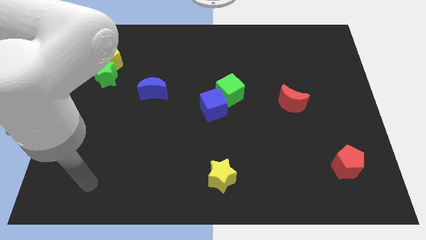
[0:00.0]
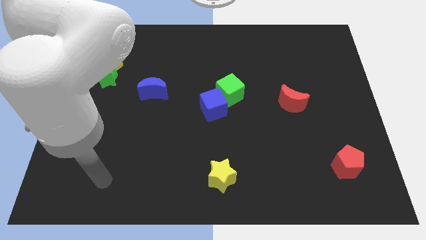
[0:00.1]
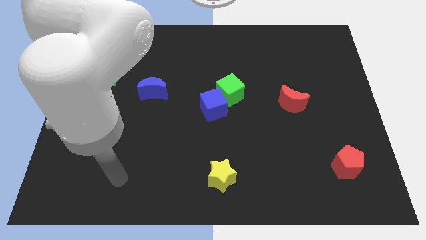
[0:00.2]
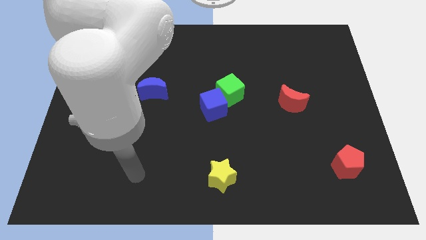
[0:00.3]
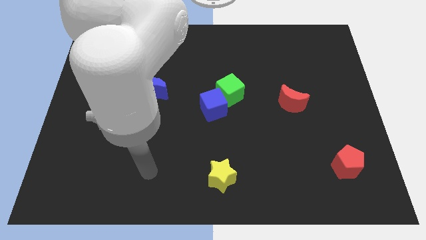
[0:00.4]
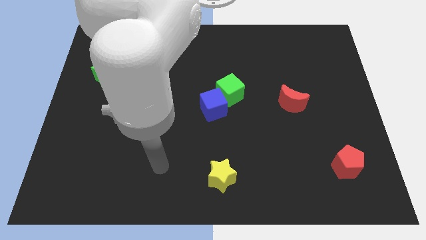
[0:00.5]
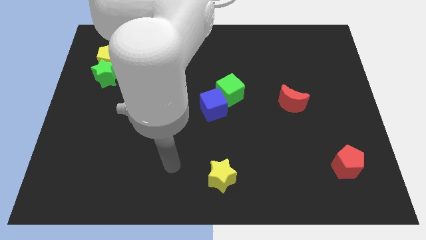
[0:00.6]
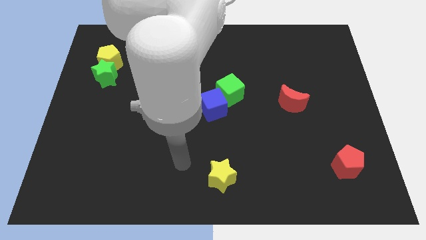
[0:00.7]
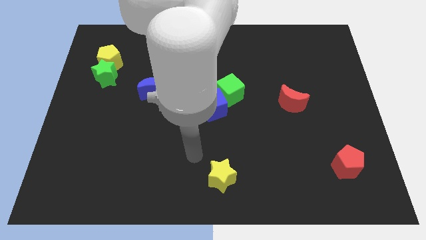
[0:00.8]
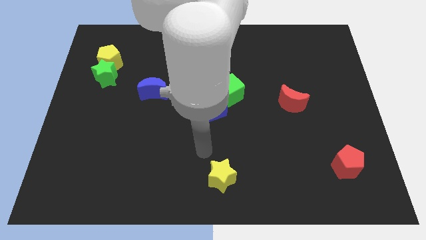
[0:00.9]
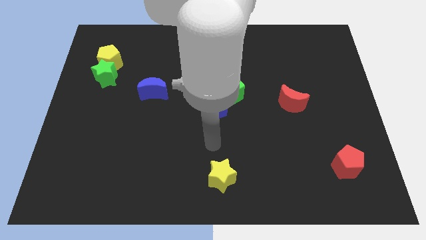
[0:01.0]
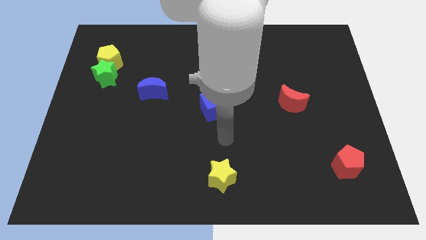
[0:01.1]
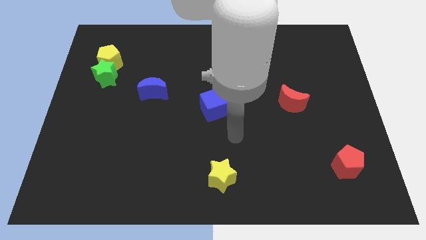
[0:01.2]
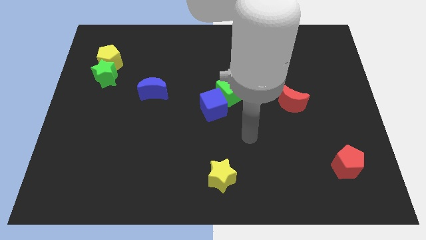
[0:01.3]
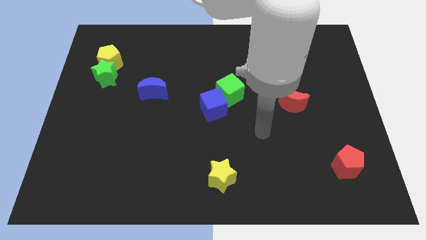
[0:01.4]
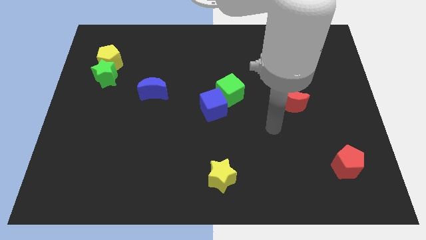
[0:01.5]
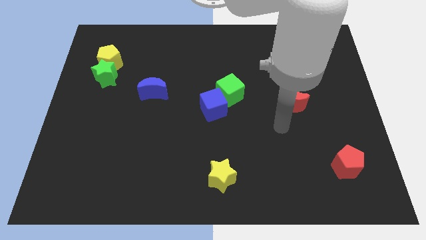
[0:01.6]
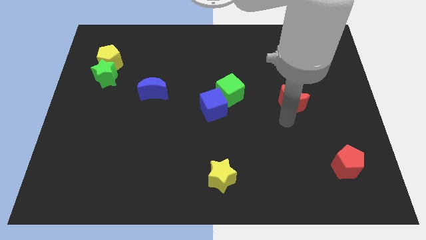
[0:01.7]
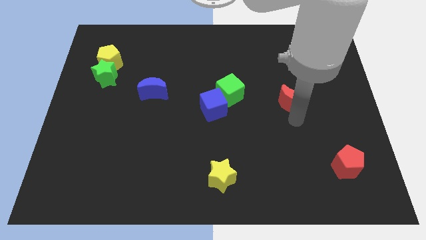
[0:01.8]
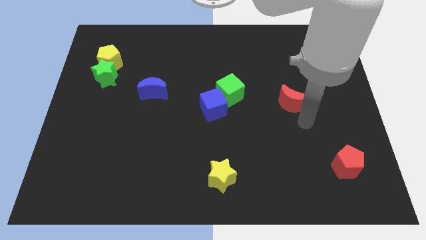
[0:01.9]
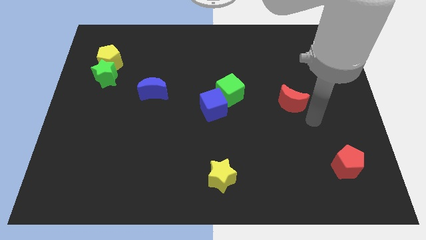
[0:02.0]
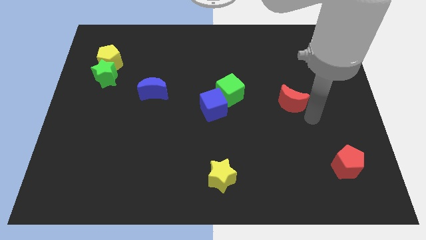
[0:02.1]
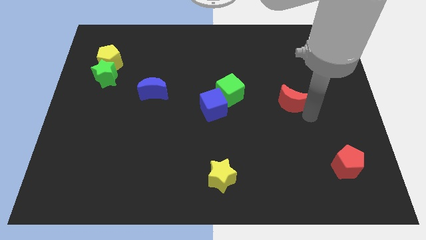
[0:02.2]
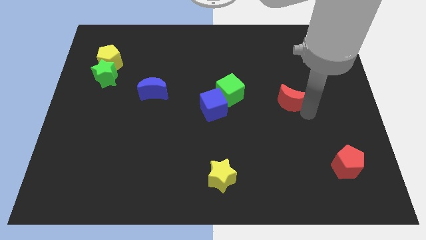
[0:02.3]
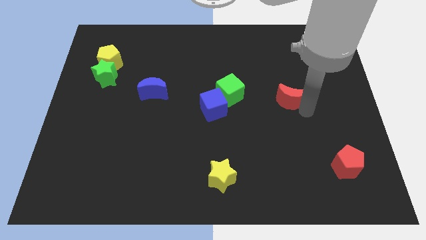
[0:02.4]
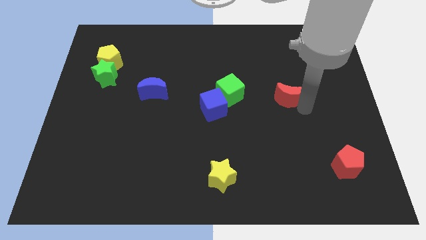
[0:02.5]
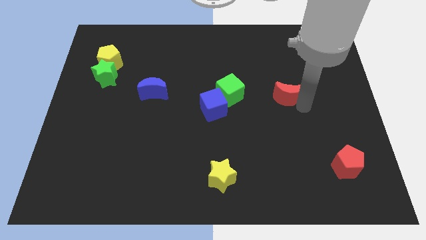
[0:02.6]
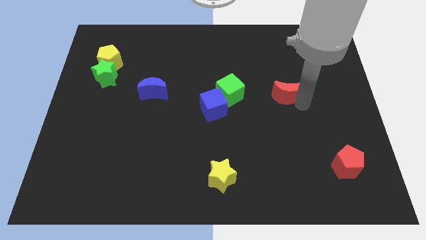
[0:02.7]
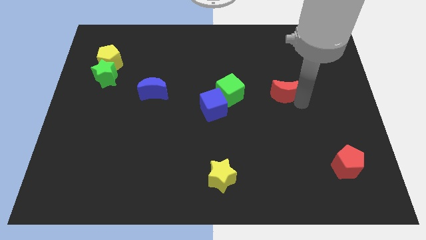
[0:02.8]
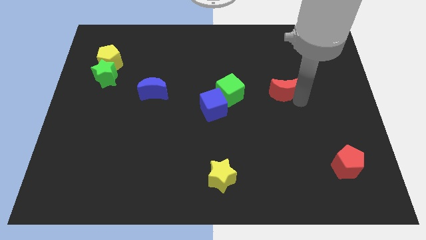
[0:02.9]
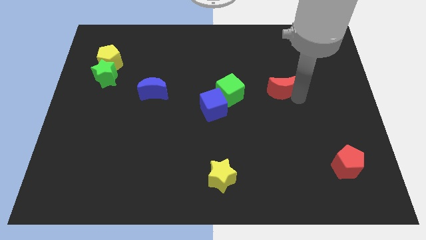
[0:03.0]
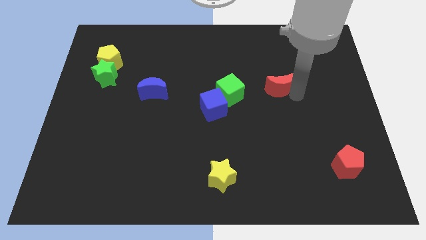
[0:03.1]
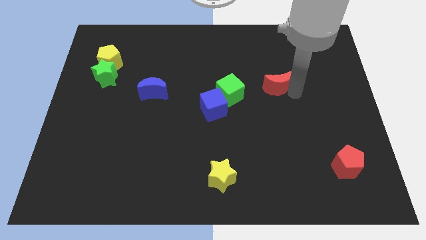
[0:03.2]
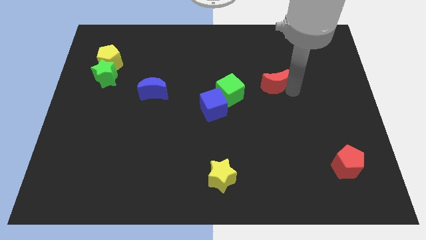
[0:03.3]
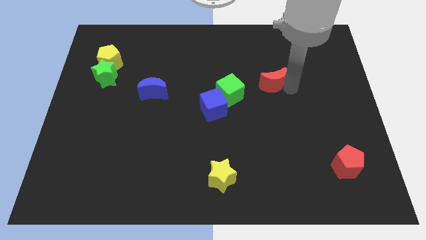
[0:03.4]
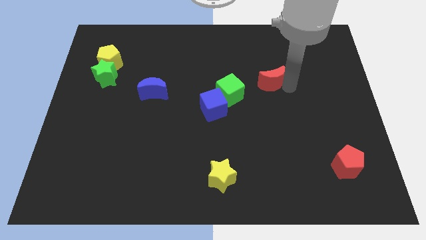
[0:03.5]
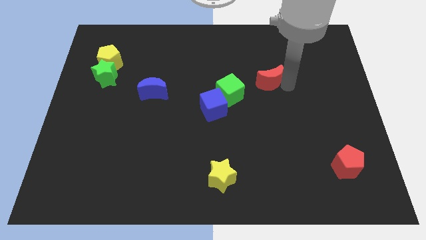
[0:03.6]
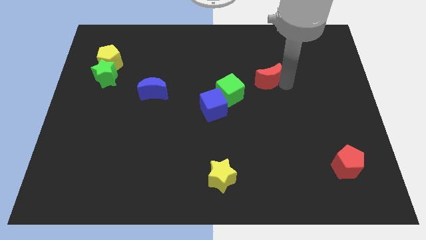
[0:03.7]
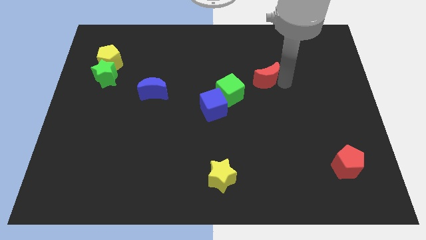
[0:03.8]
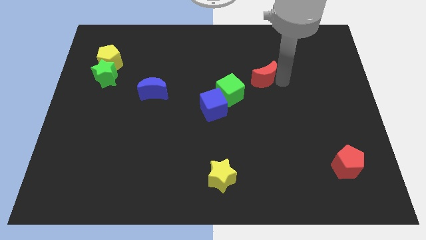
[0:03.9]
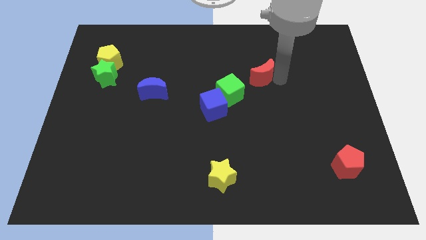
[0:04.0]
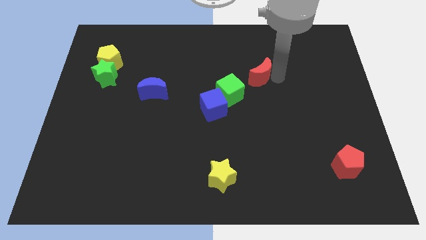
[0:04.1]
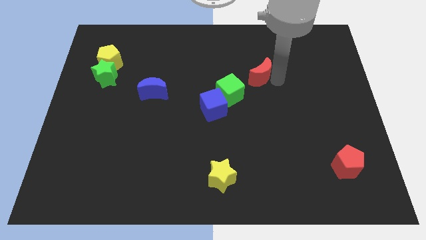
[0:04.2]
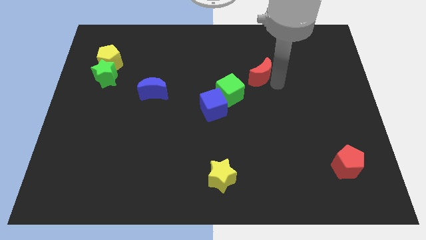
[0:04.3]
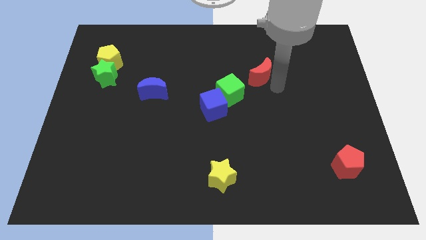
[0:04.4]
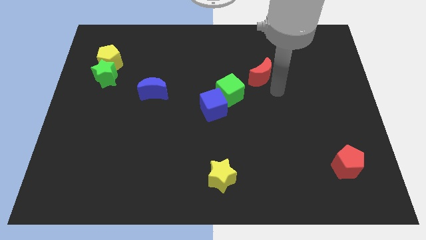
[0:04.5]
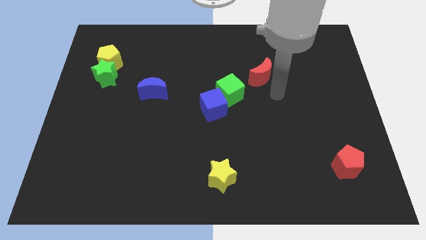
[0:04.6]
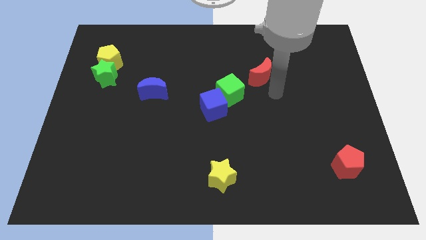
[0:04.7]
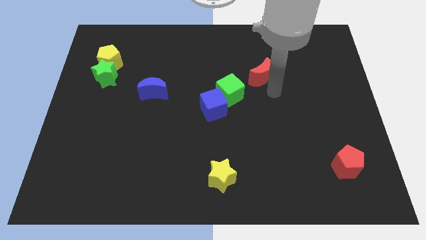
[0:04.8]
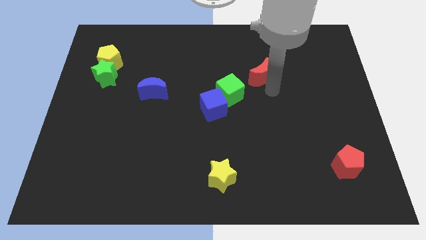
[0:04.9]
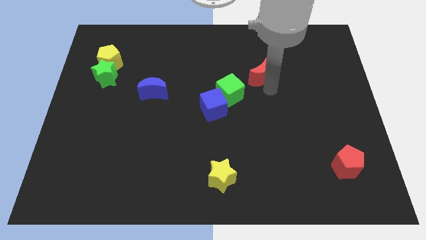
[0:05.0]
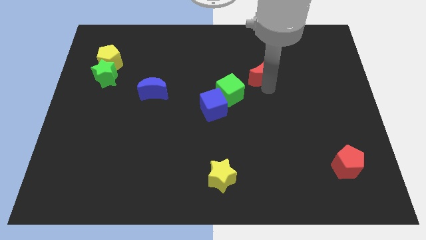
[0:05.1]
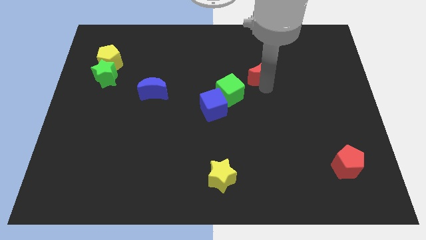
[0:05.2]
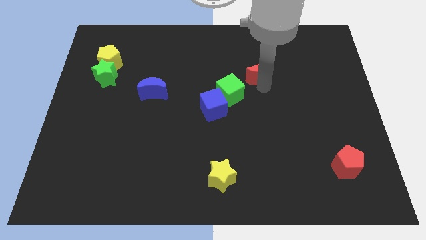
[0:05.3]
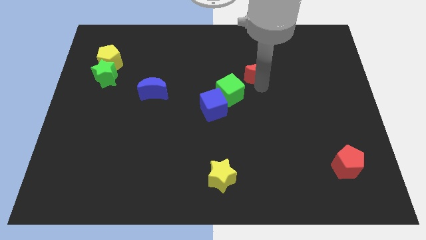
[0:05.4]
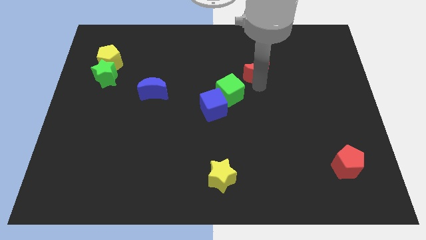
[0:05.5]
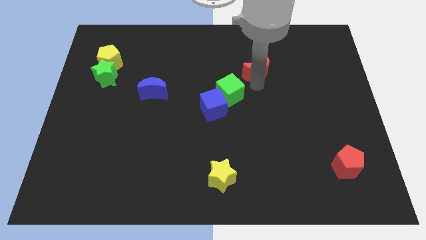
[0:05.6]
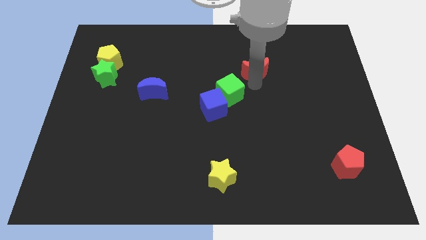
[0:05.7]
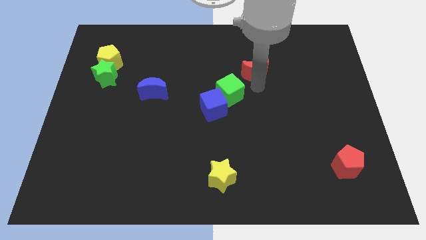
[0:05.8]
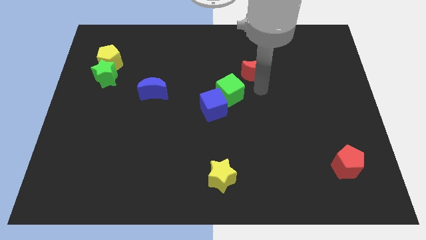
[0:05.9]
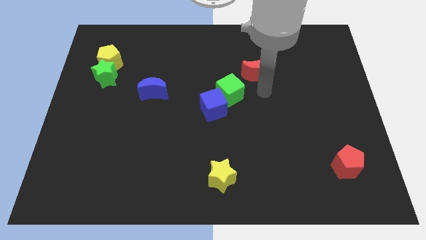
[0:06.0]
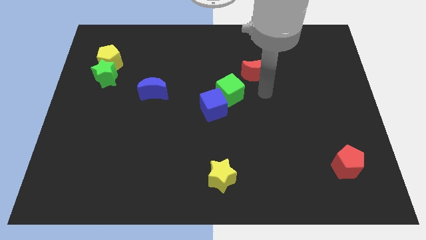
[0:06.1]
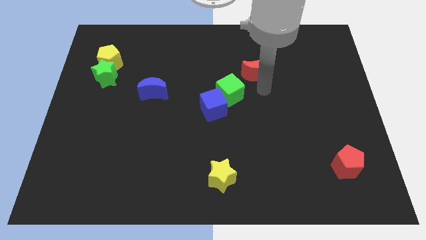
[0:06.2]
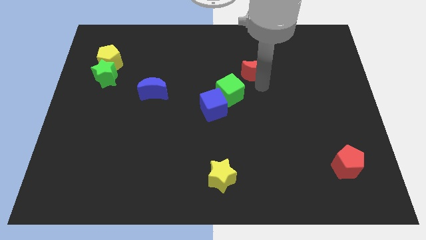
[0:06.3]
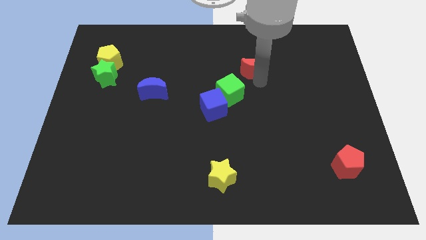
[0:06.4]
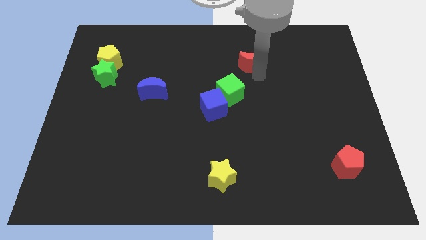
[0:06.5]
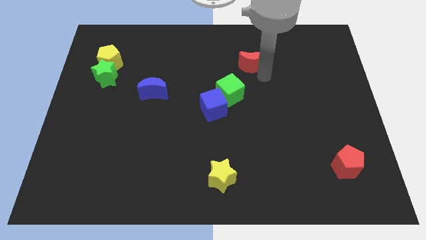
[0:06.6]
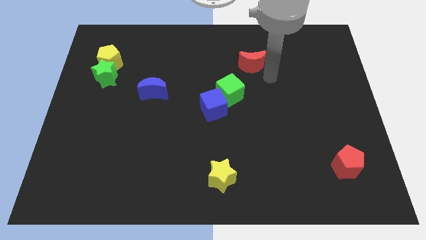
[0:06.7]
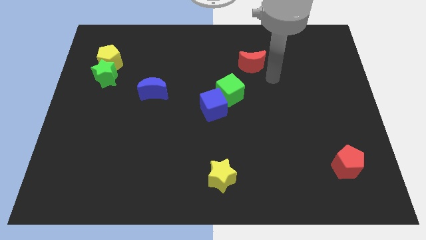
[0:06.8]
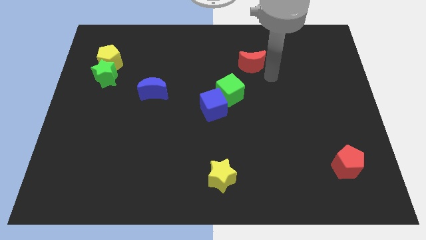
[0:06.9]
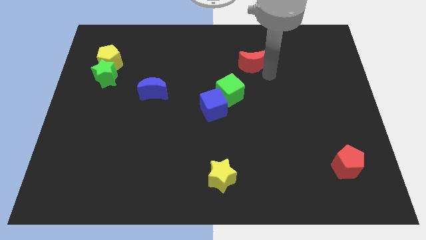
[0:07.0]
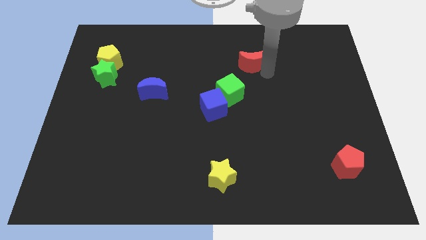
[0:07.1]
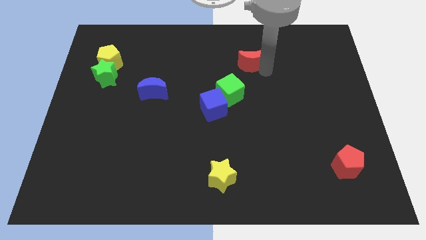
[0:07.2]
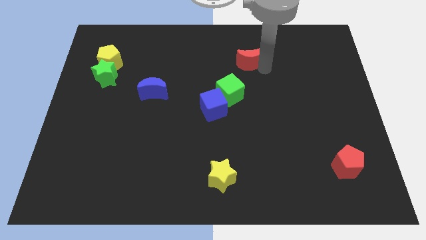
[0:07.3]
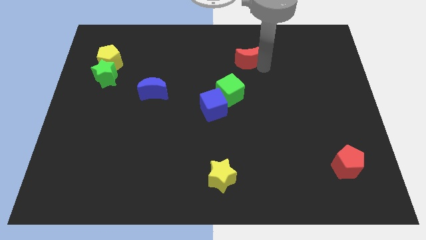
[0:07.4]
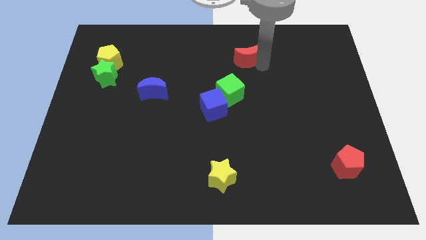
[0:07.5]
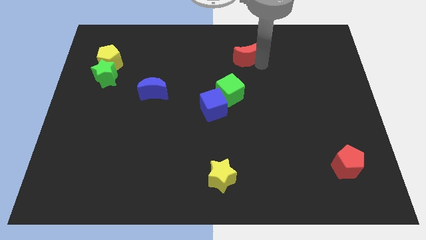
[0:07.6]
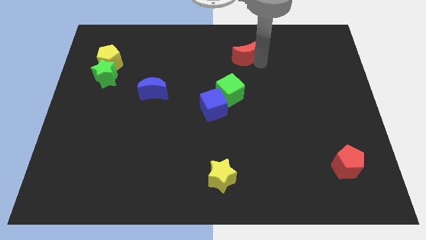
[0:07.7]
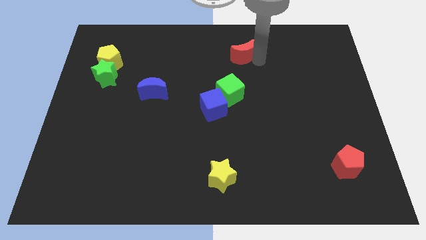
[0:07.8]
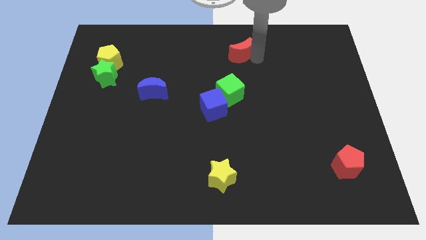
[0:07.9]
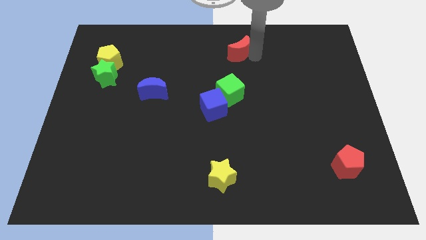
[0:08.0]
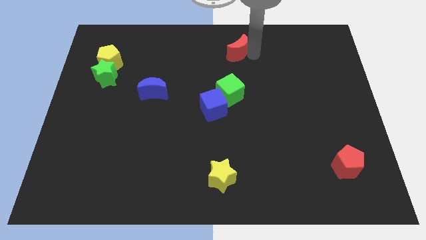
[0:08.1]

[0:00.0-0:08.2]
slide the red moon to the towards your base
